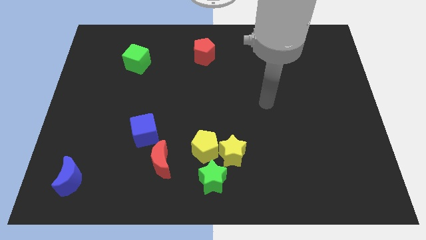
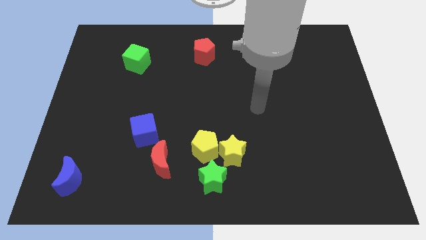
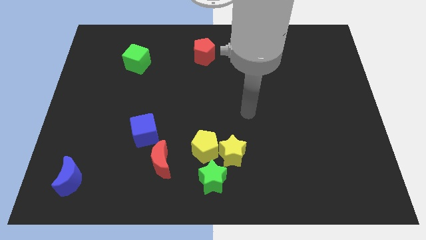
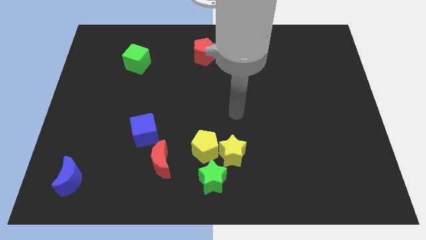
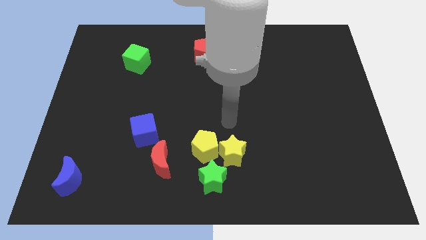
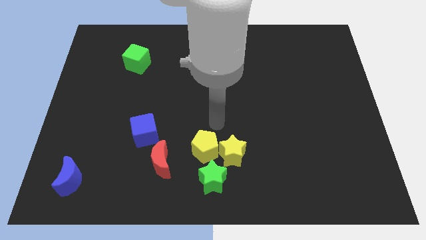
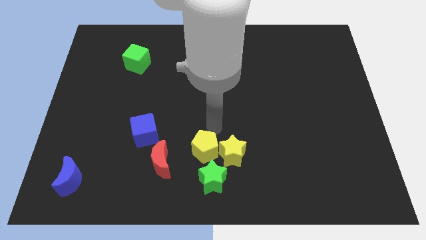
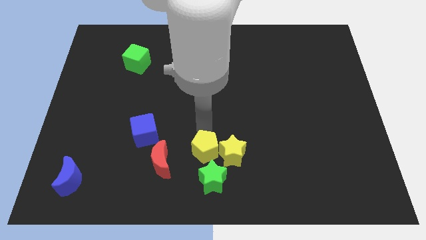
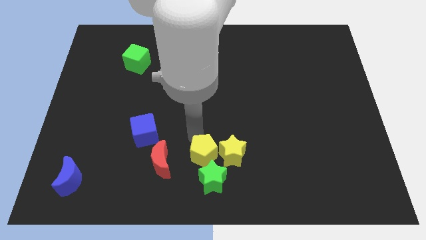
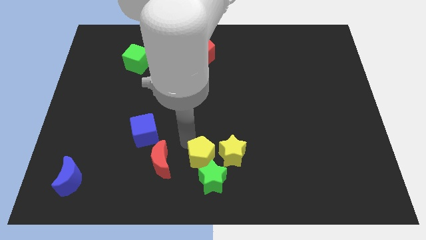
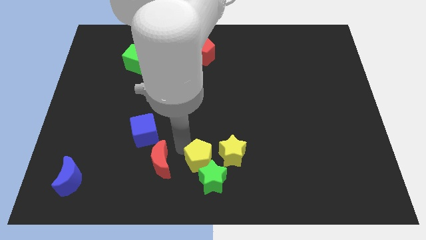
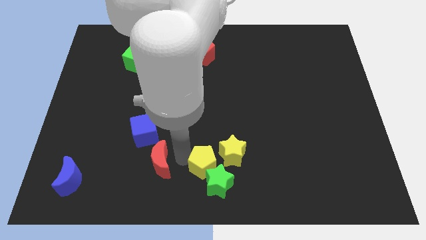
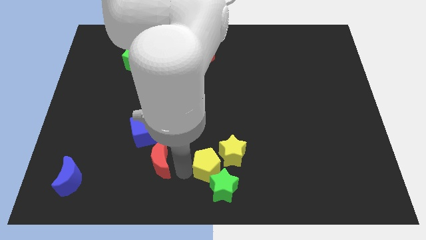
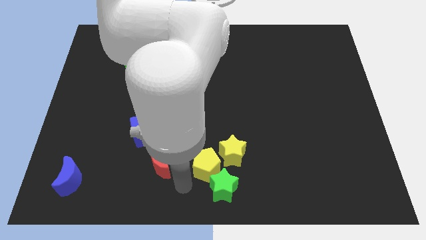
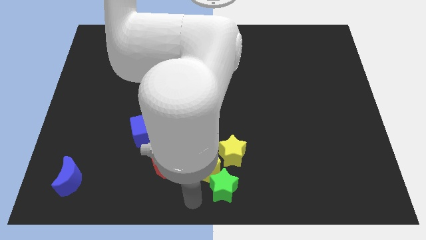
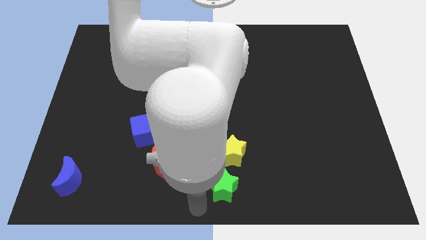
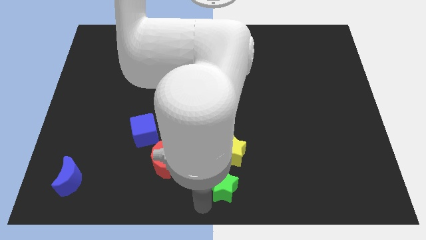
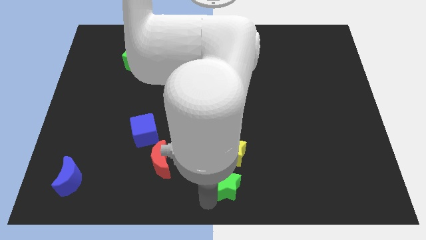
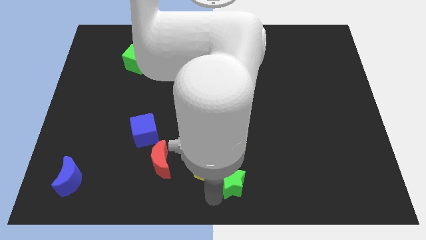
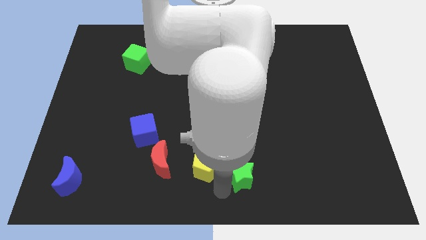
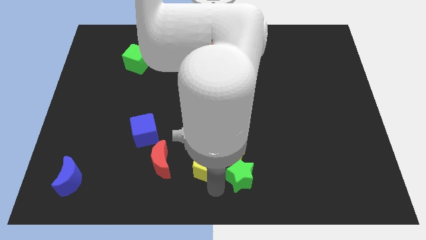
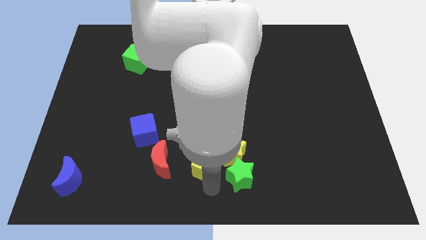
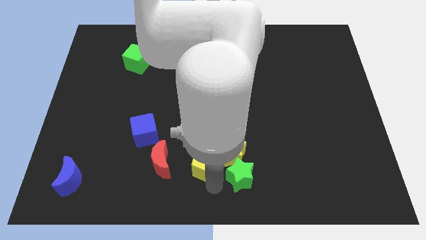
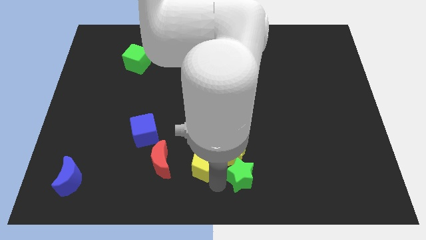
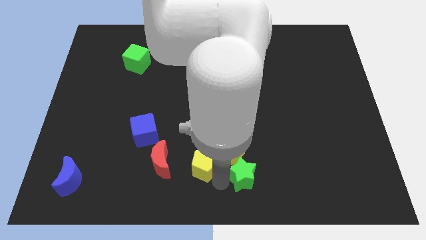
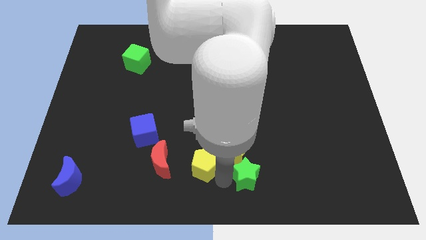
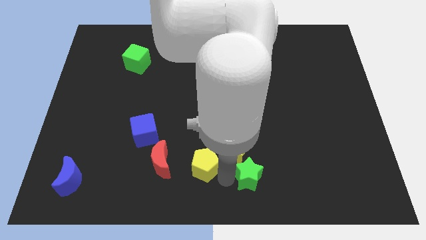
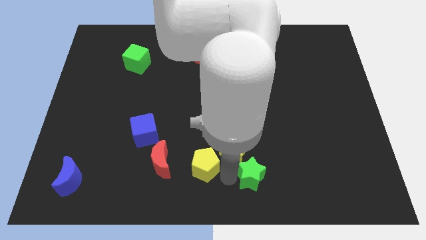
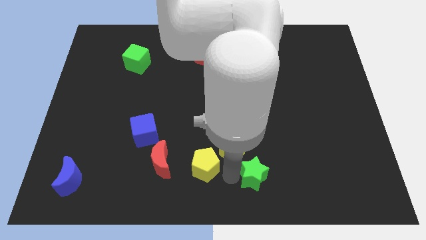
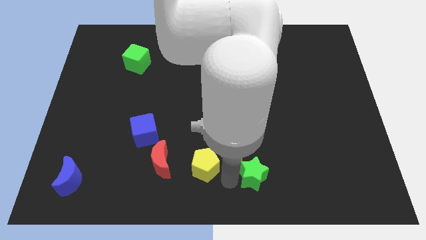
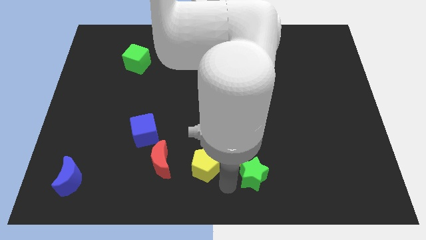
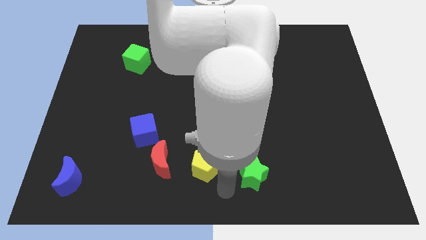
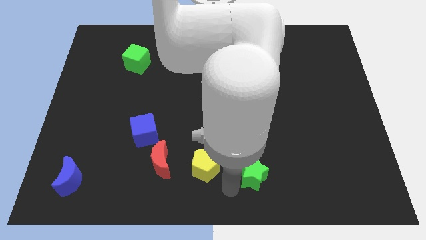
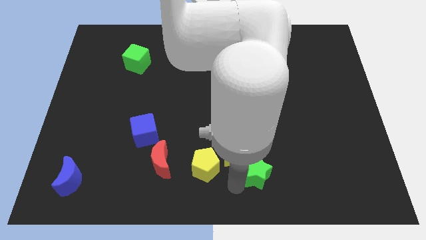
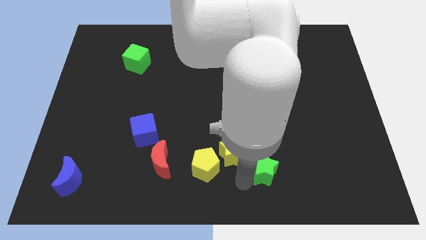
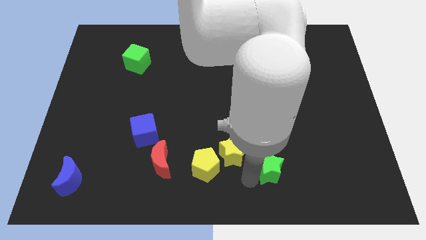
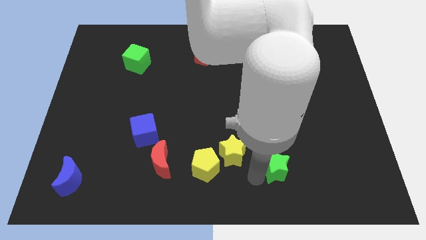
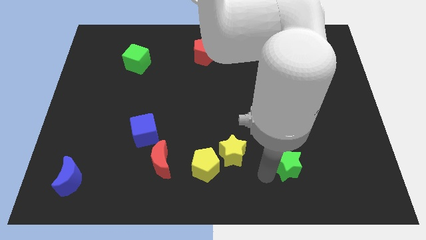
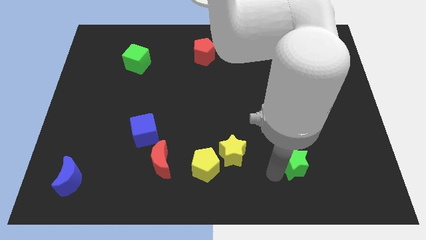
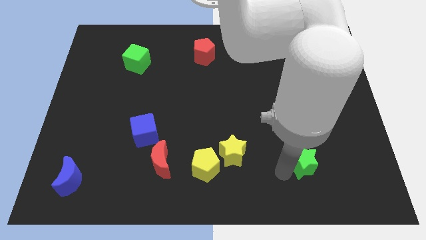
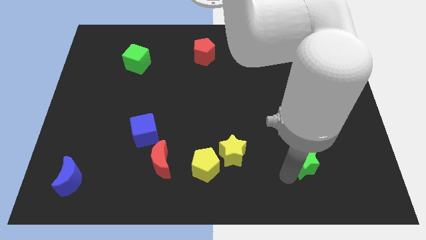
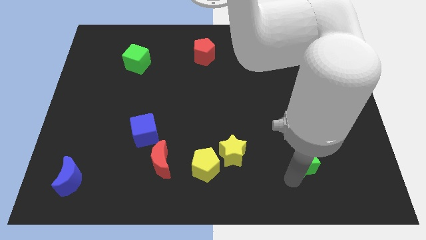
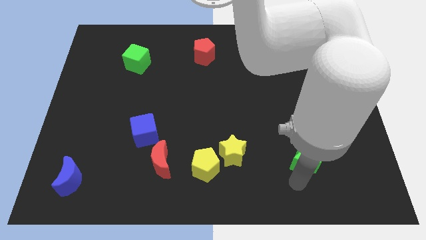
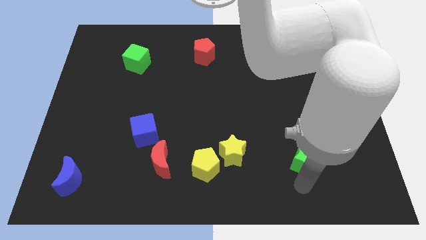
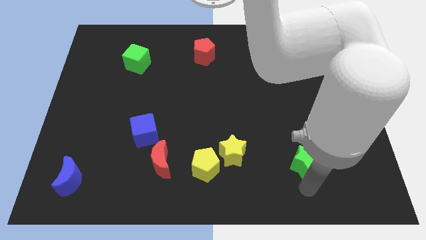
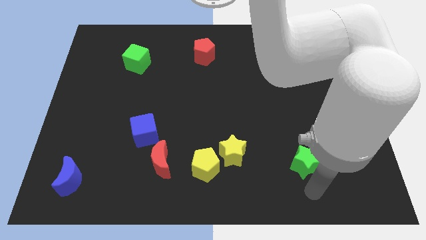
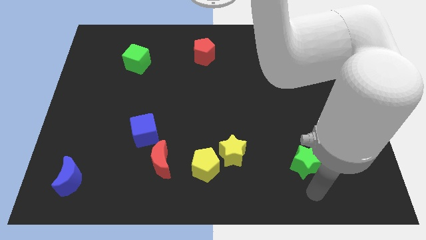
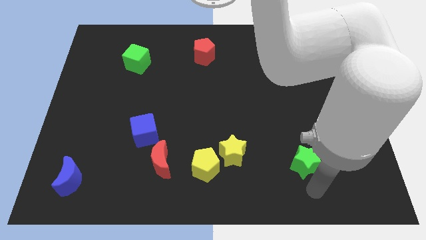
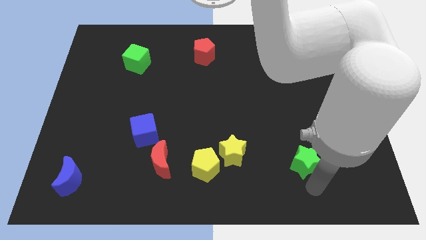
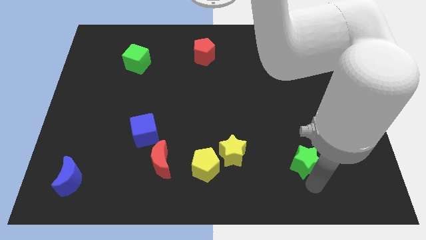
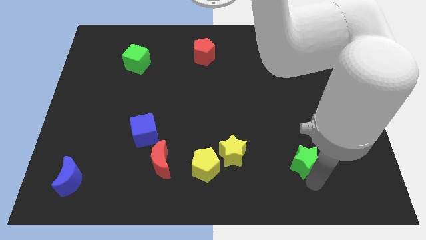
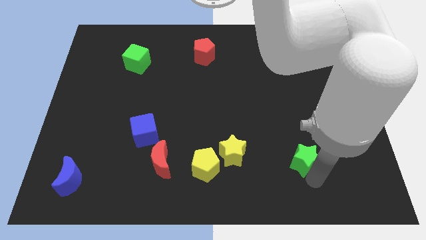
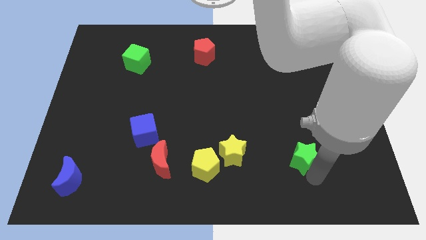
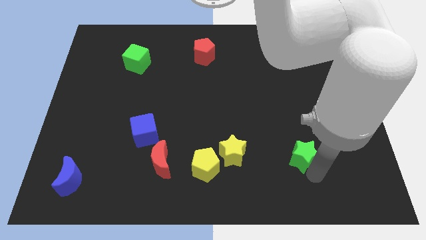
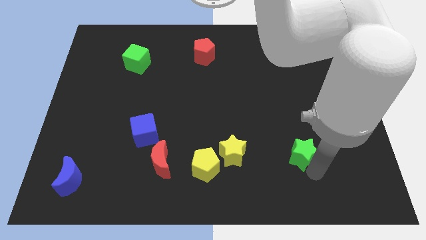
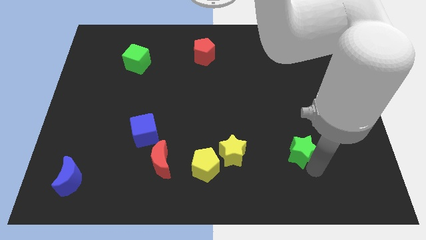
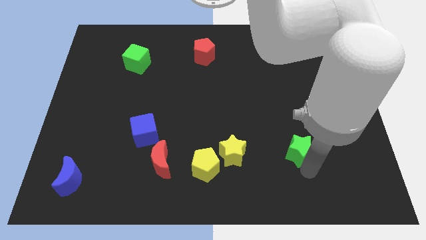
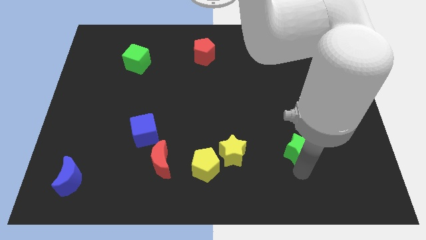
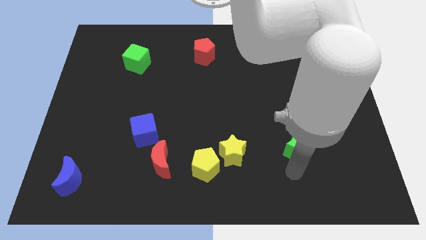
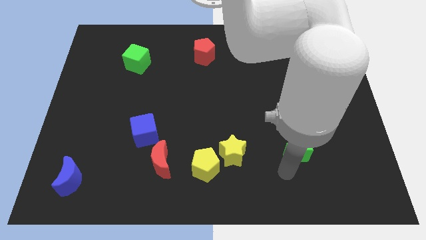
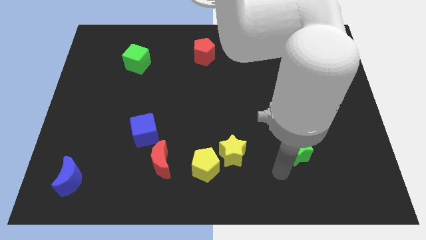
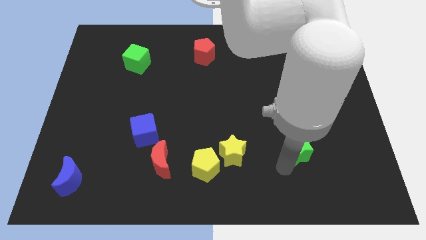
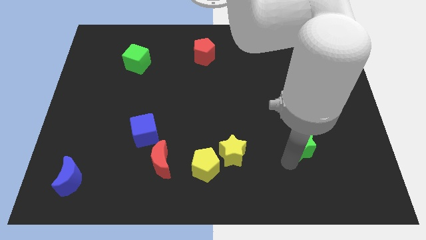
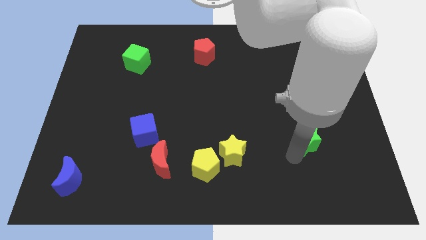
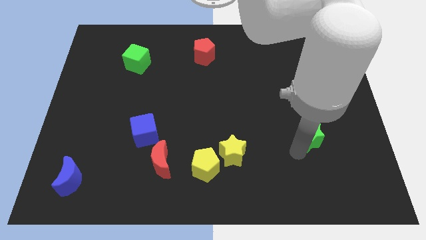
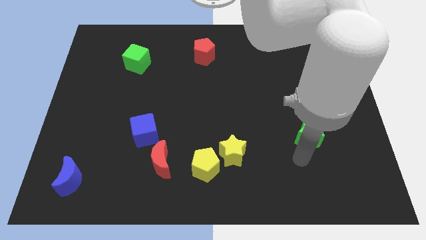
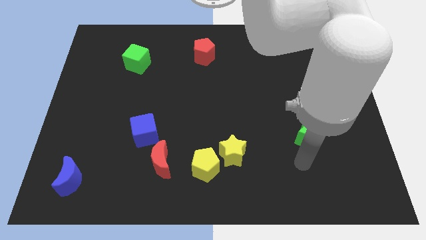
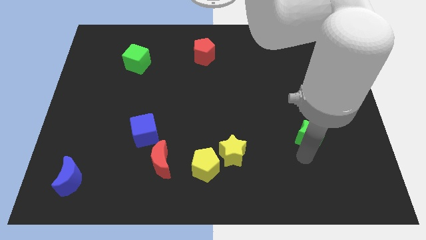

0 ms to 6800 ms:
slide the green star up and right diagonally

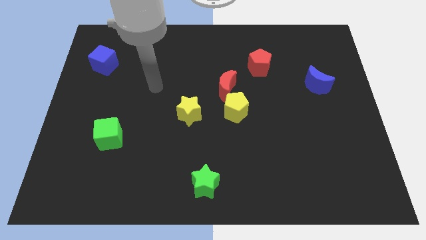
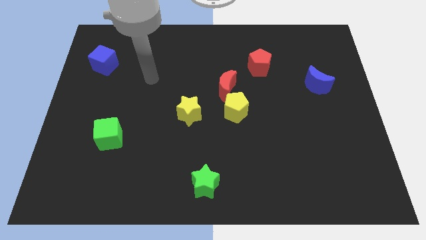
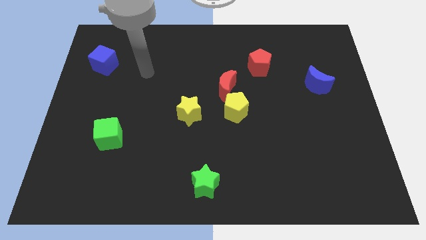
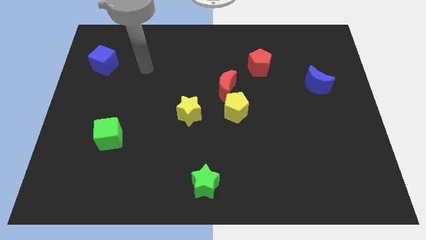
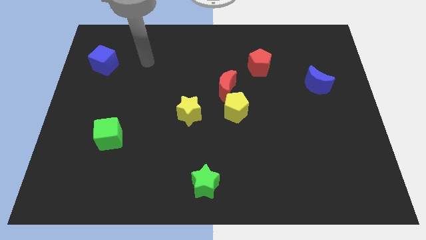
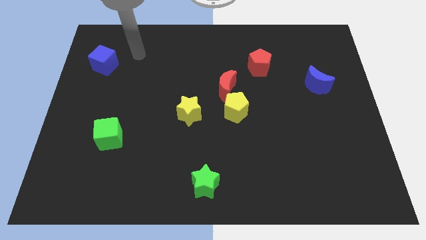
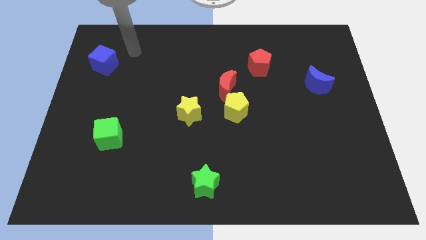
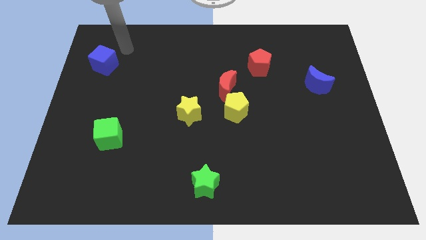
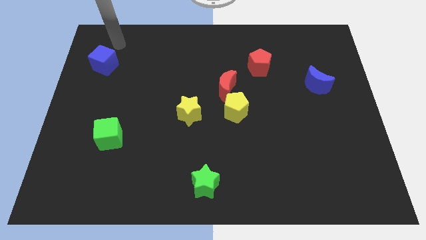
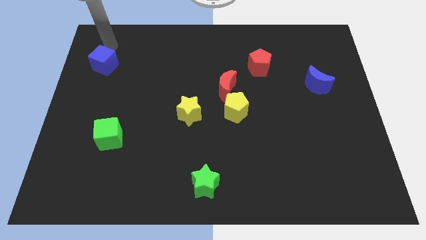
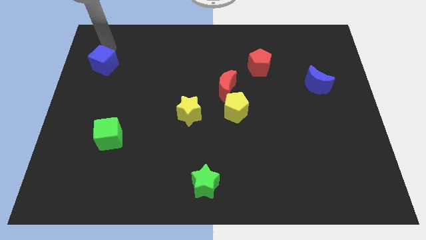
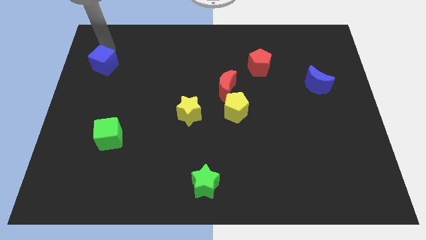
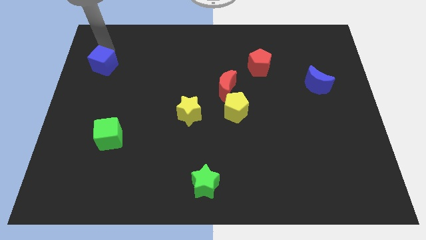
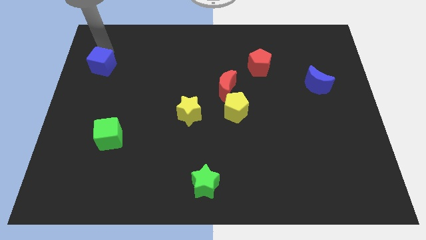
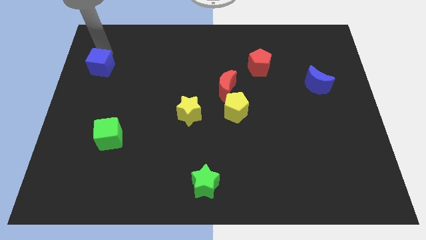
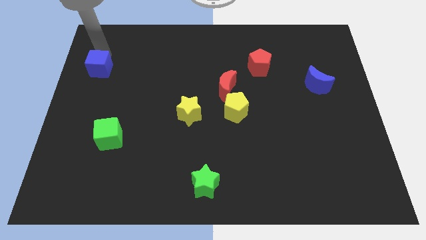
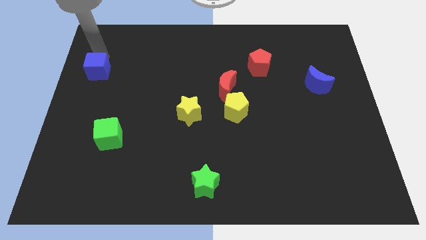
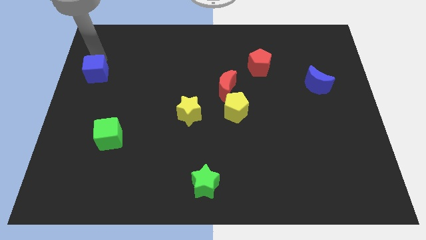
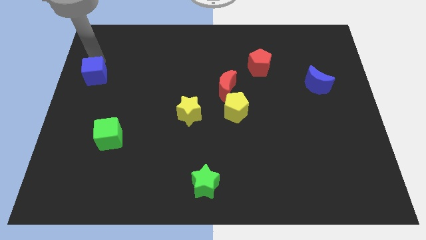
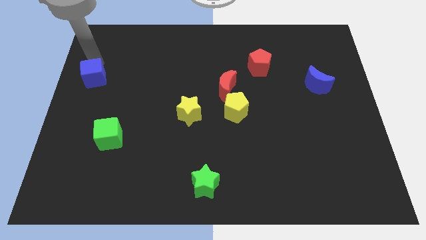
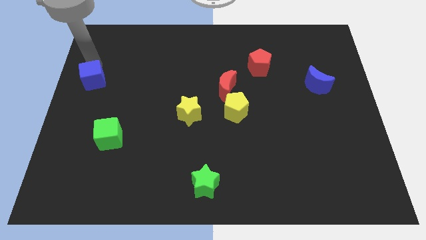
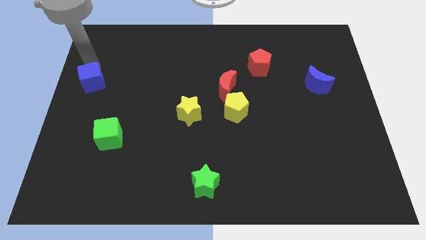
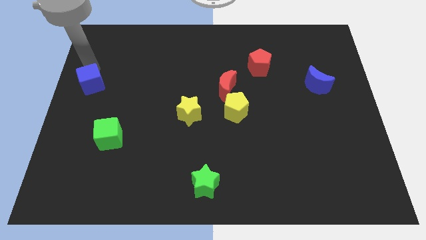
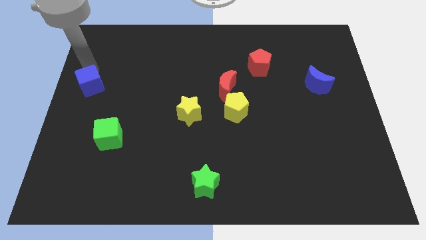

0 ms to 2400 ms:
move the blue cube down a little
